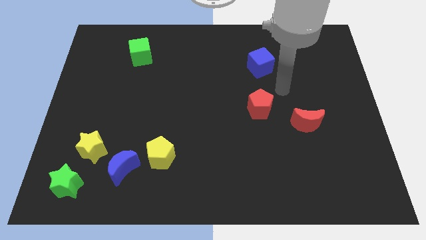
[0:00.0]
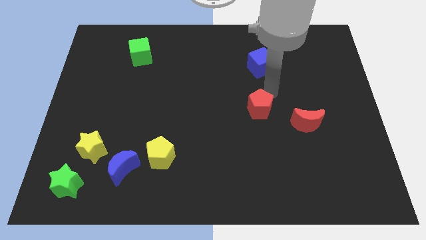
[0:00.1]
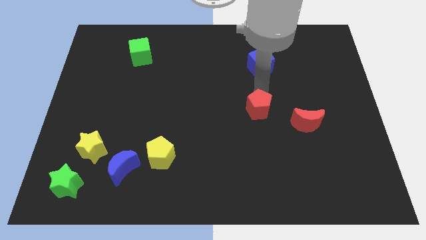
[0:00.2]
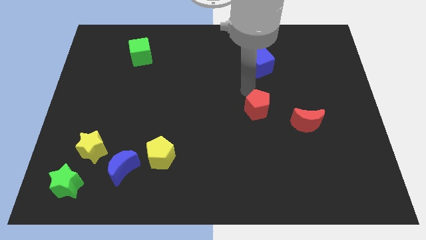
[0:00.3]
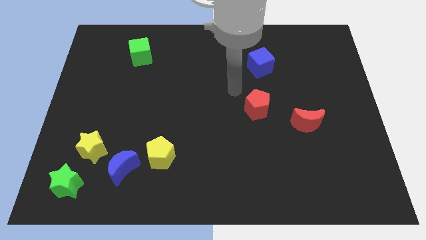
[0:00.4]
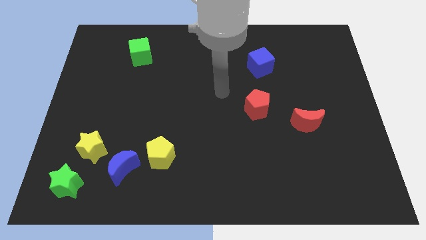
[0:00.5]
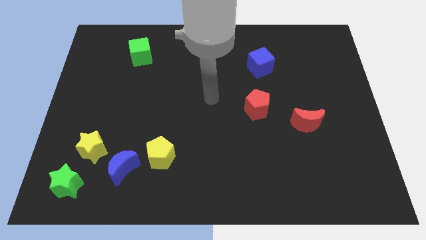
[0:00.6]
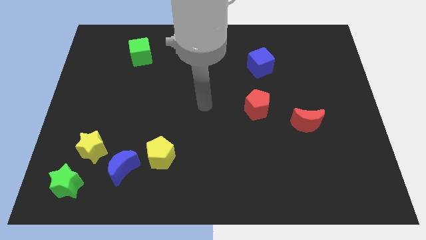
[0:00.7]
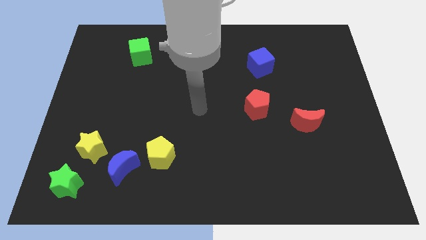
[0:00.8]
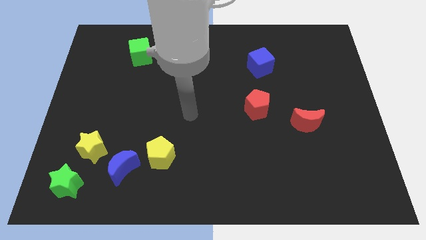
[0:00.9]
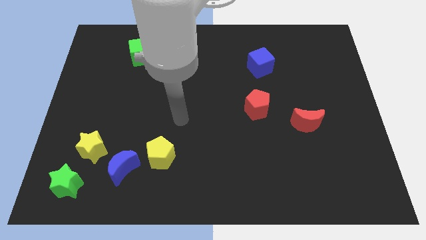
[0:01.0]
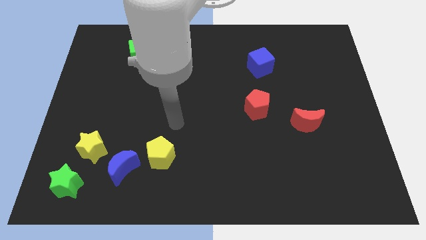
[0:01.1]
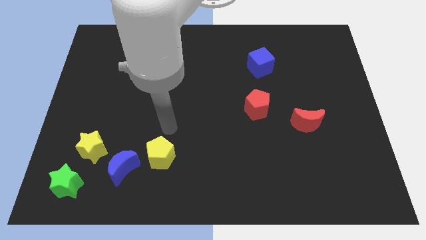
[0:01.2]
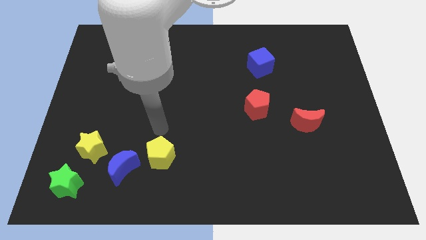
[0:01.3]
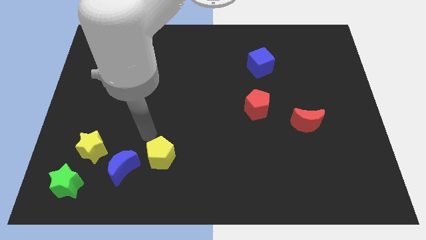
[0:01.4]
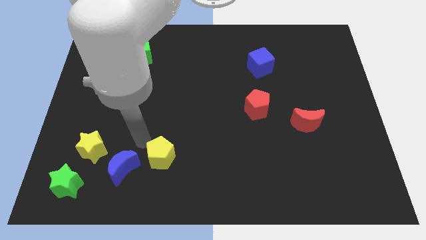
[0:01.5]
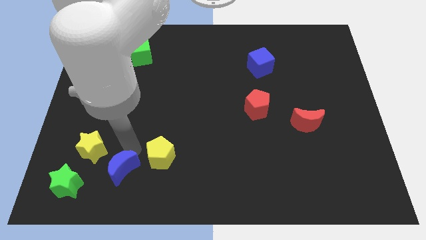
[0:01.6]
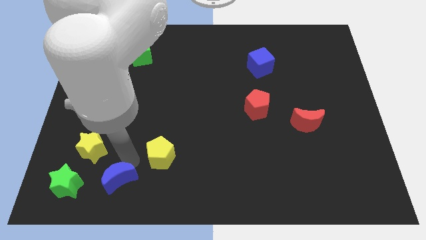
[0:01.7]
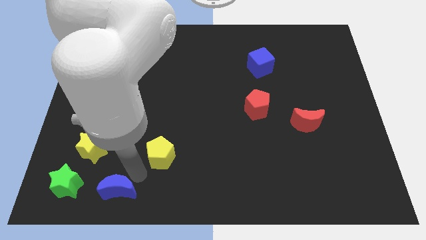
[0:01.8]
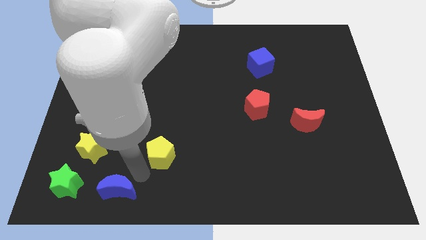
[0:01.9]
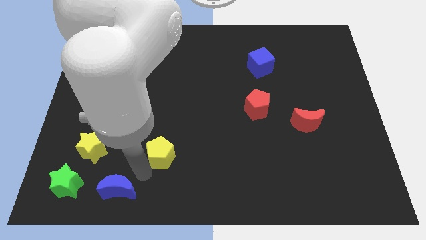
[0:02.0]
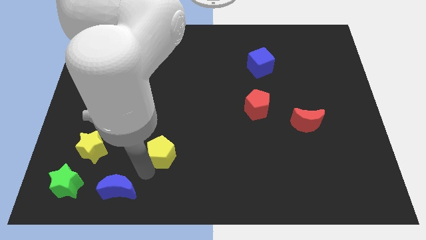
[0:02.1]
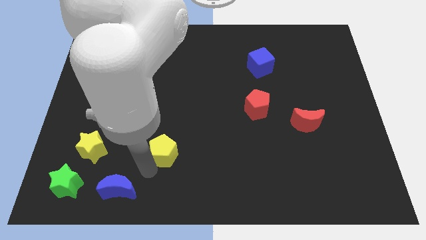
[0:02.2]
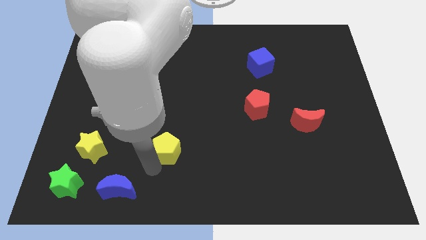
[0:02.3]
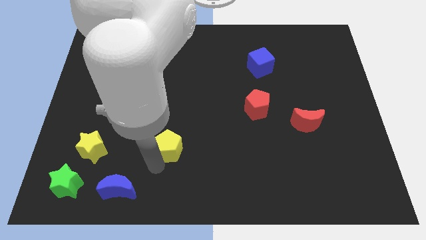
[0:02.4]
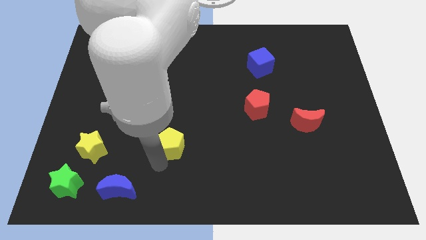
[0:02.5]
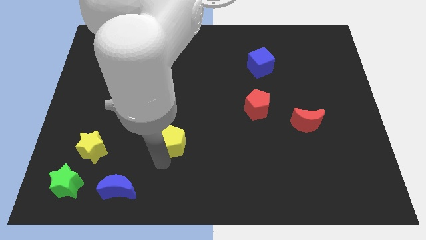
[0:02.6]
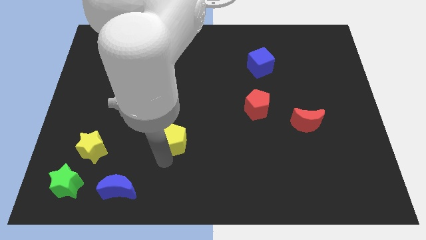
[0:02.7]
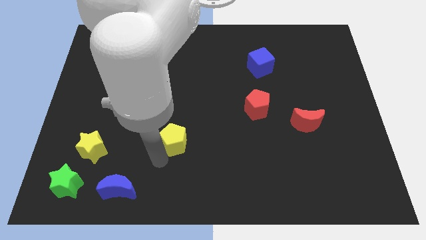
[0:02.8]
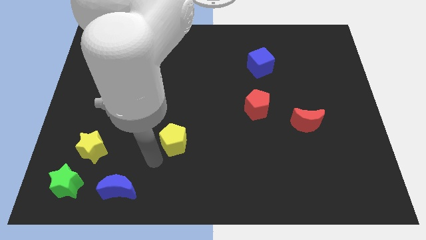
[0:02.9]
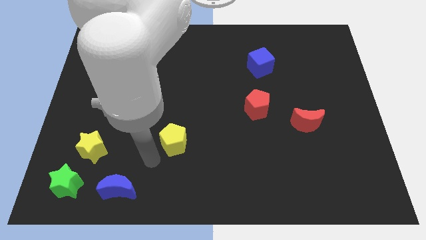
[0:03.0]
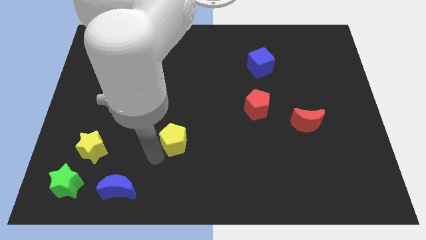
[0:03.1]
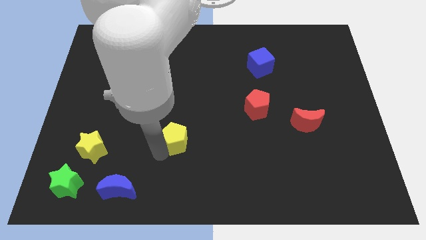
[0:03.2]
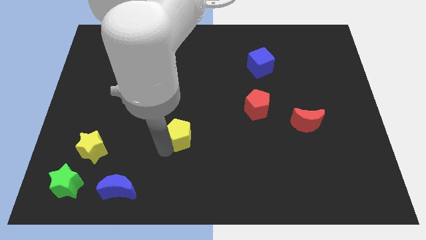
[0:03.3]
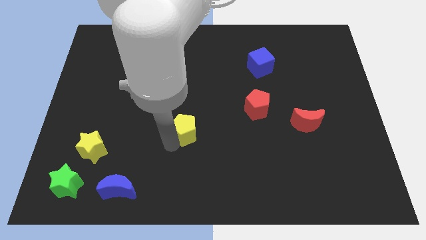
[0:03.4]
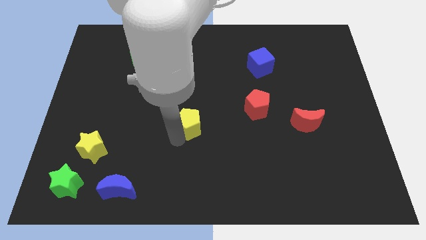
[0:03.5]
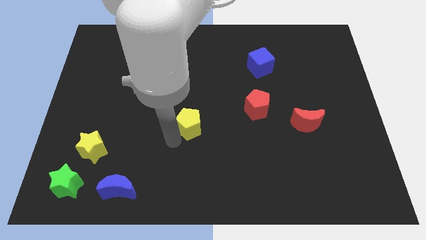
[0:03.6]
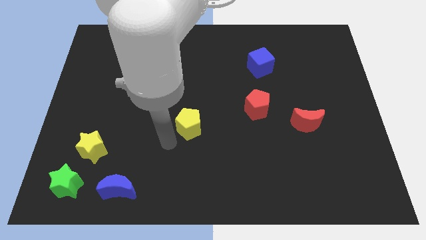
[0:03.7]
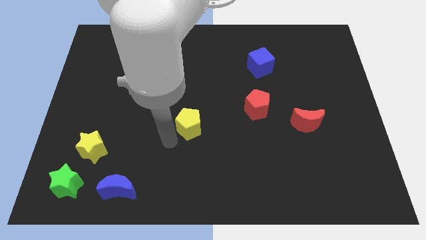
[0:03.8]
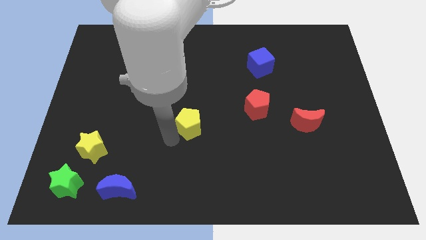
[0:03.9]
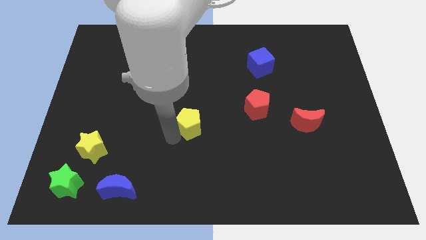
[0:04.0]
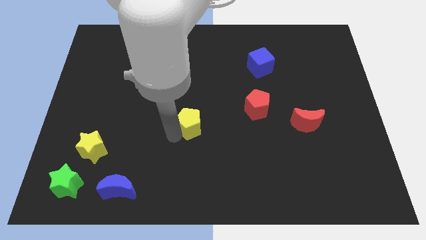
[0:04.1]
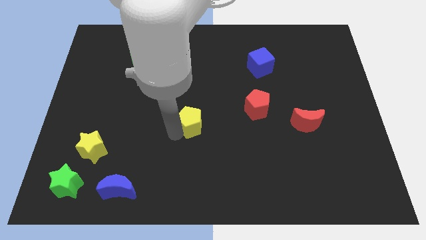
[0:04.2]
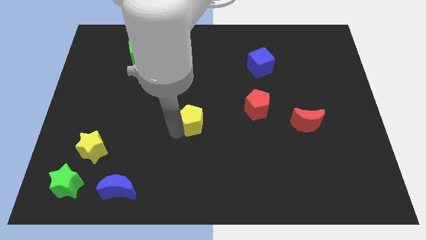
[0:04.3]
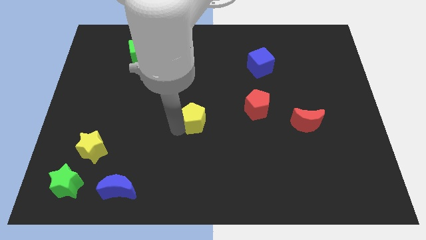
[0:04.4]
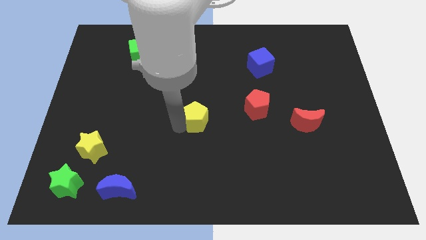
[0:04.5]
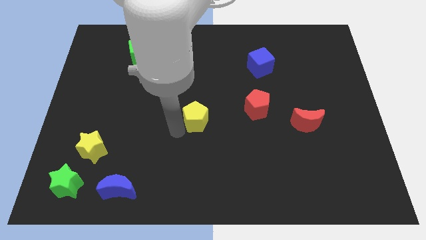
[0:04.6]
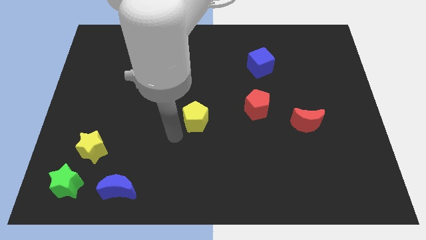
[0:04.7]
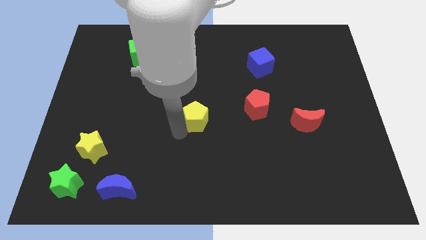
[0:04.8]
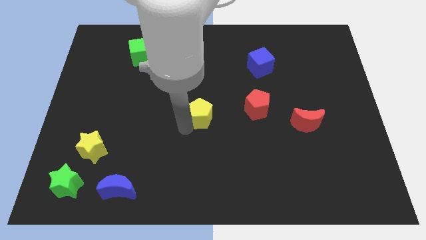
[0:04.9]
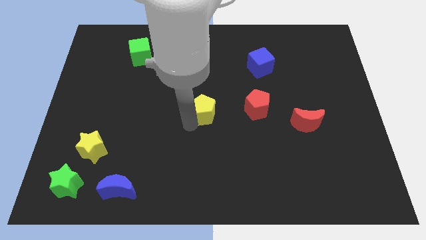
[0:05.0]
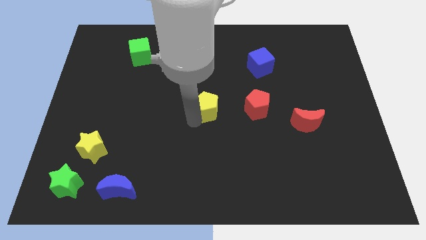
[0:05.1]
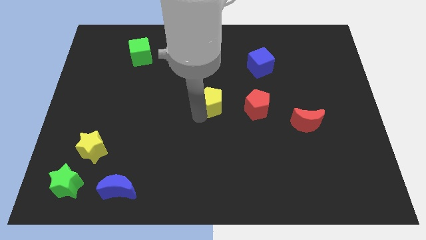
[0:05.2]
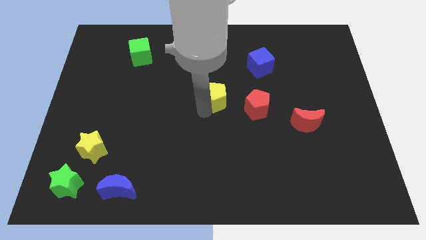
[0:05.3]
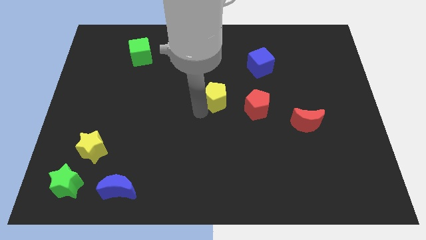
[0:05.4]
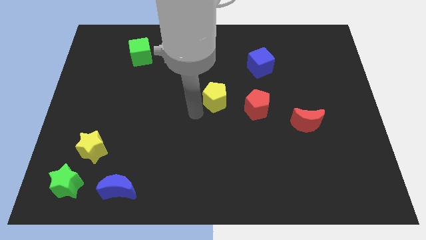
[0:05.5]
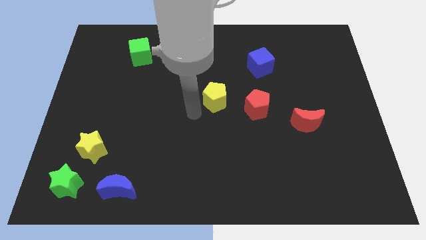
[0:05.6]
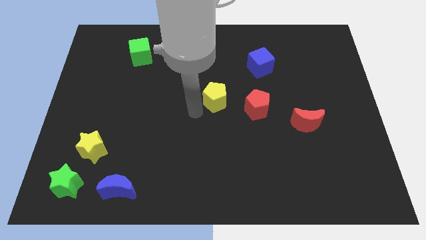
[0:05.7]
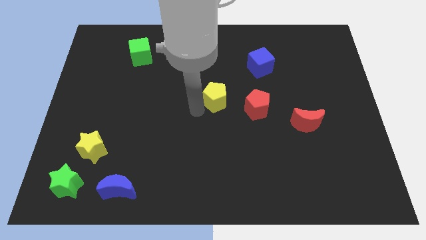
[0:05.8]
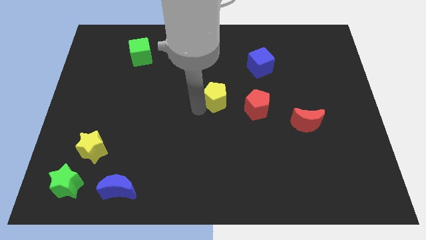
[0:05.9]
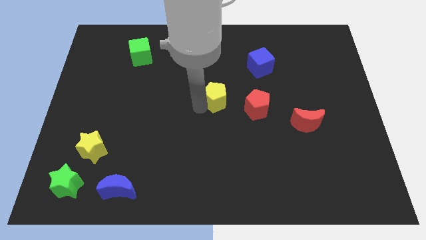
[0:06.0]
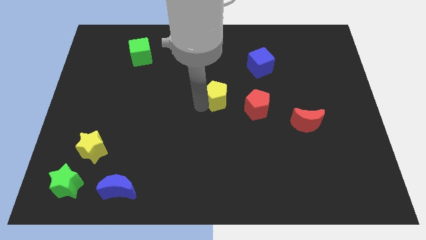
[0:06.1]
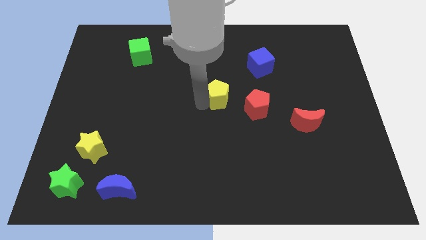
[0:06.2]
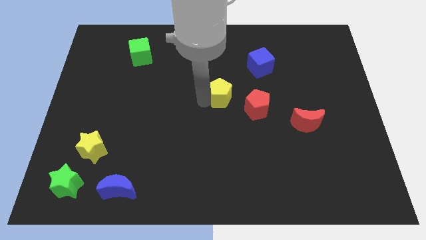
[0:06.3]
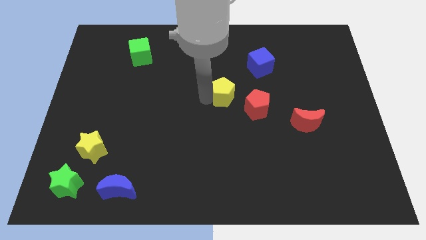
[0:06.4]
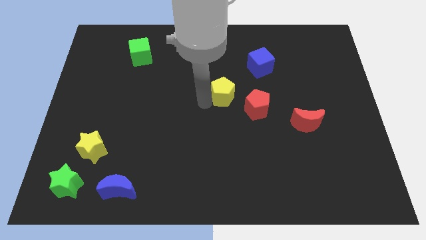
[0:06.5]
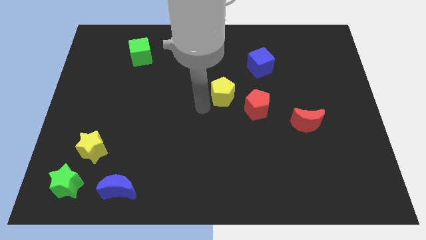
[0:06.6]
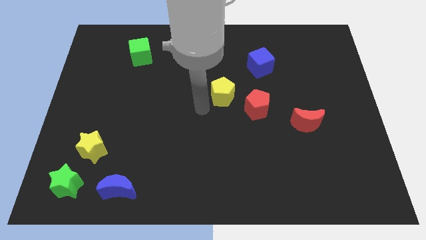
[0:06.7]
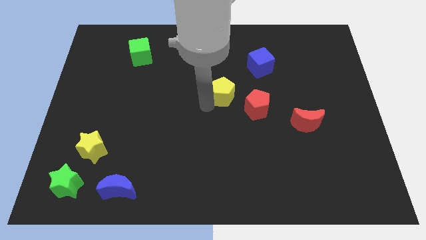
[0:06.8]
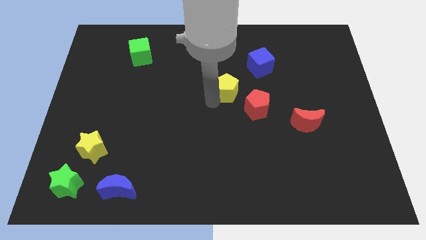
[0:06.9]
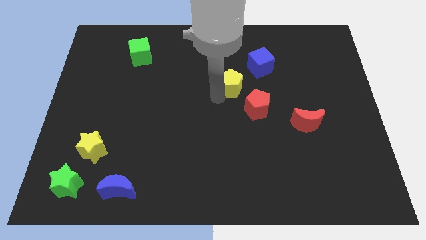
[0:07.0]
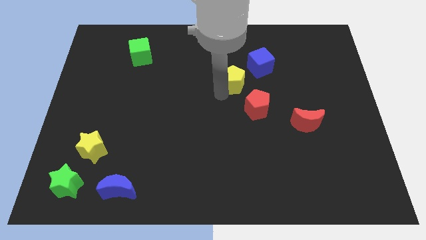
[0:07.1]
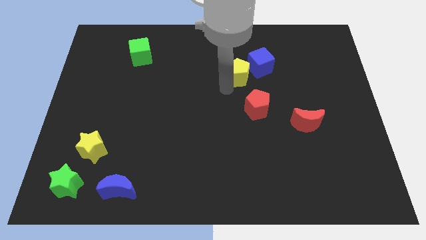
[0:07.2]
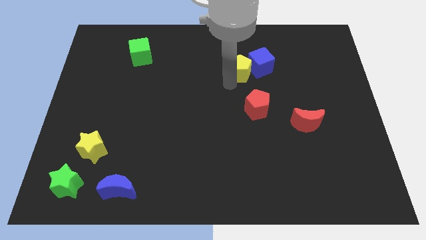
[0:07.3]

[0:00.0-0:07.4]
move the yellow pentagon next to the blue cube

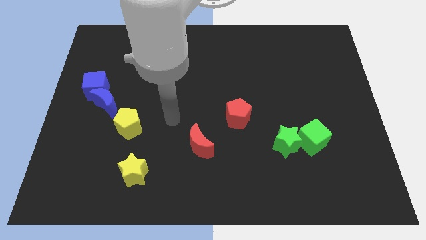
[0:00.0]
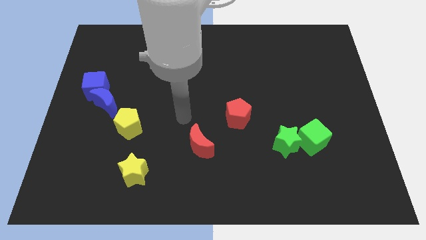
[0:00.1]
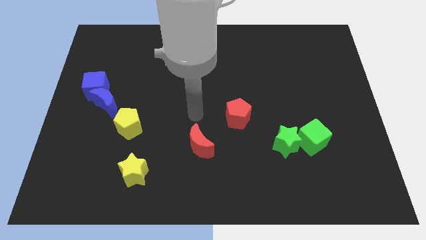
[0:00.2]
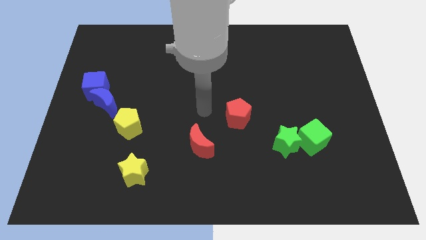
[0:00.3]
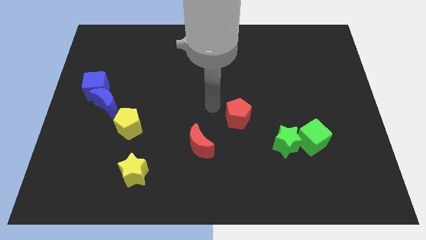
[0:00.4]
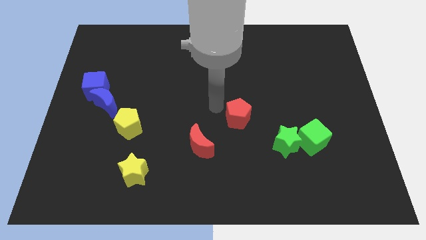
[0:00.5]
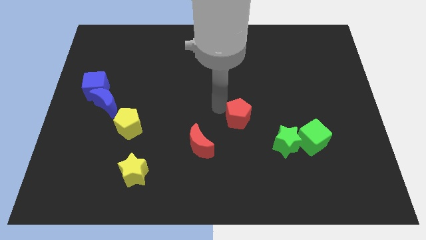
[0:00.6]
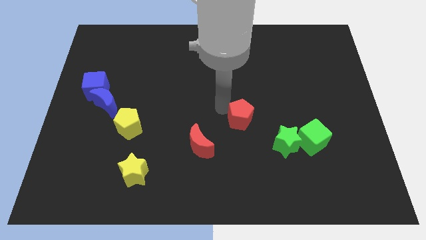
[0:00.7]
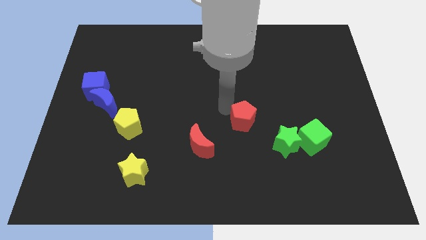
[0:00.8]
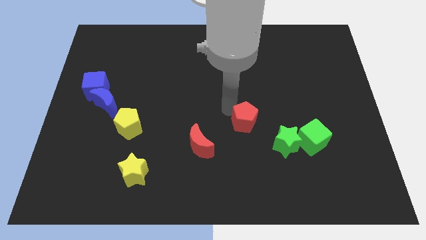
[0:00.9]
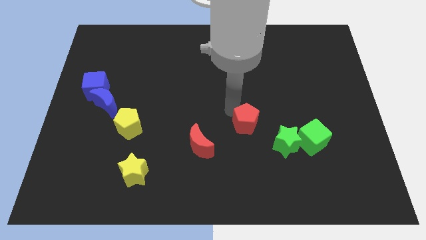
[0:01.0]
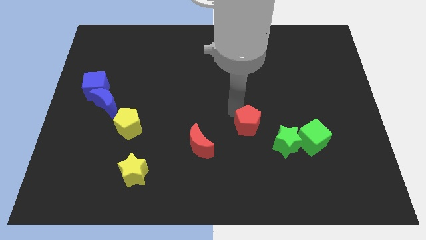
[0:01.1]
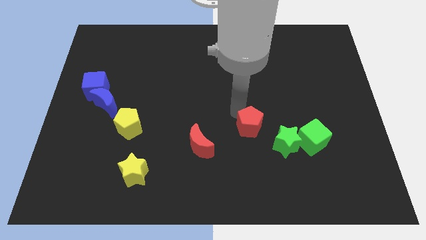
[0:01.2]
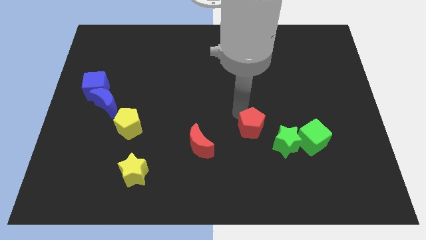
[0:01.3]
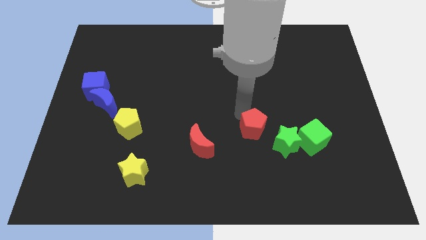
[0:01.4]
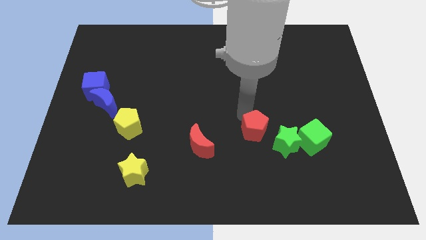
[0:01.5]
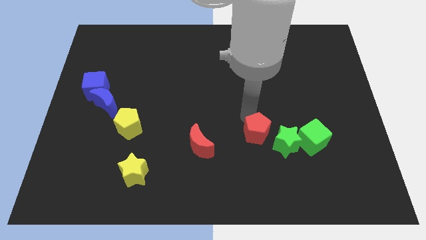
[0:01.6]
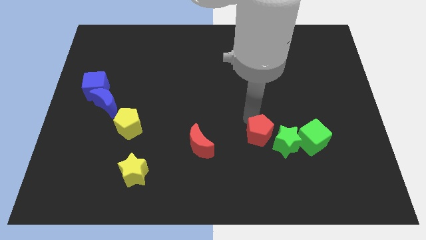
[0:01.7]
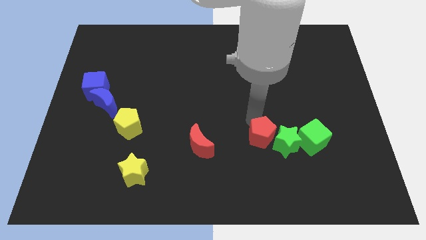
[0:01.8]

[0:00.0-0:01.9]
put the red pentagon towards the green star
